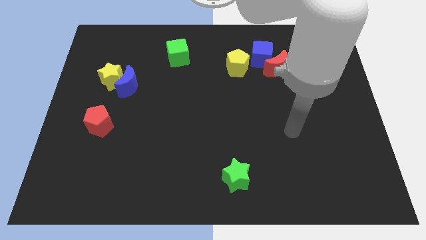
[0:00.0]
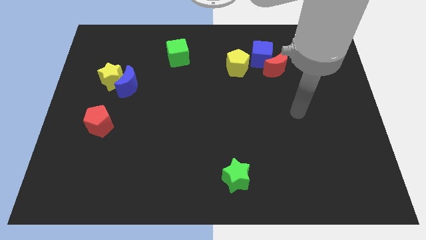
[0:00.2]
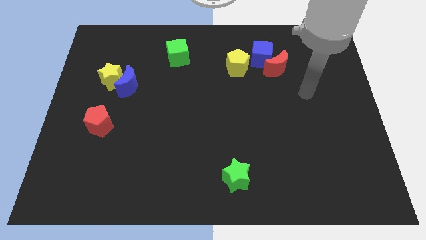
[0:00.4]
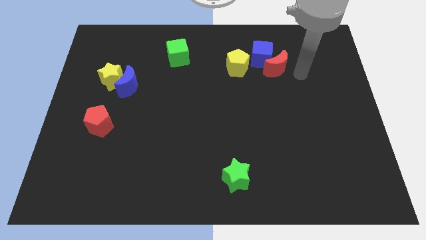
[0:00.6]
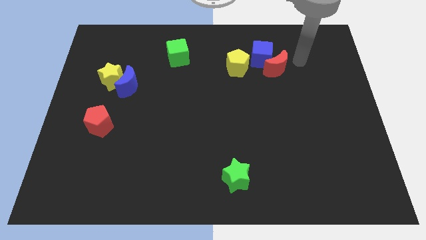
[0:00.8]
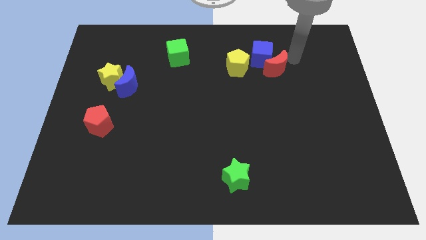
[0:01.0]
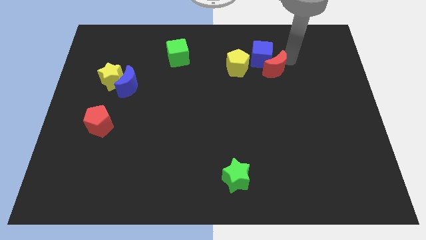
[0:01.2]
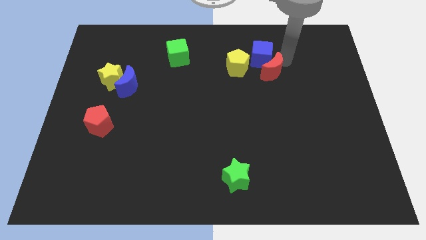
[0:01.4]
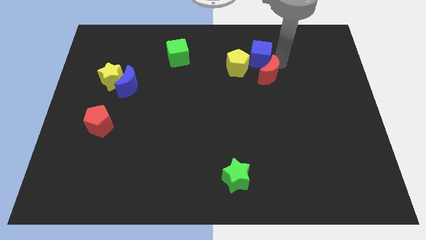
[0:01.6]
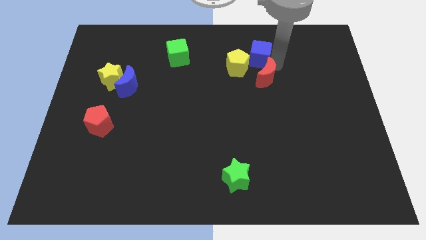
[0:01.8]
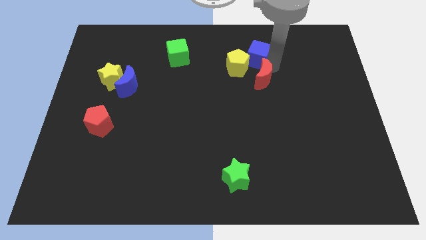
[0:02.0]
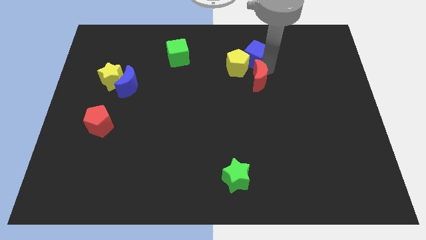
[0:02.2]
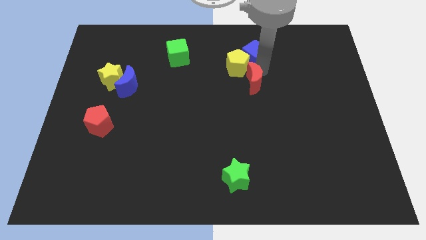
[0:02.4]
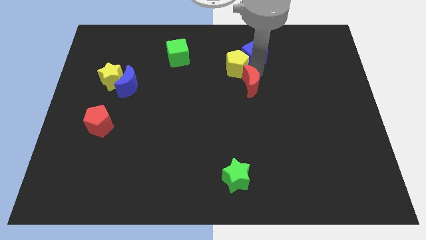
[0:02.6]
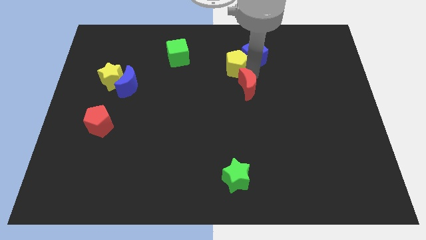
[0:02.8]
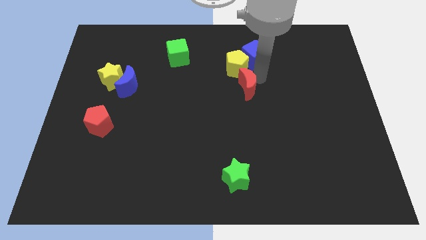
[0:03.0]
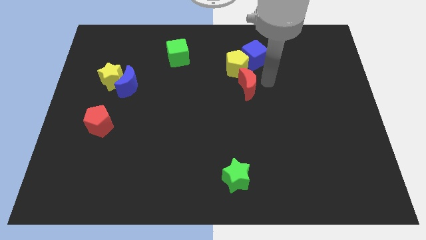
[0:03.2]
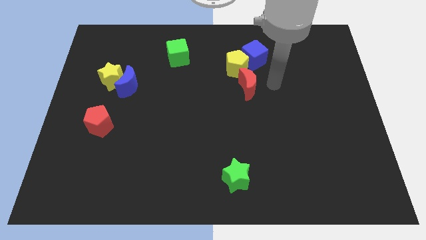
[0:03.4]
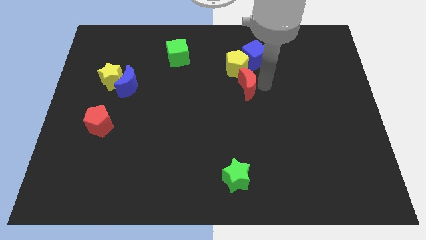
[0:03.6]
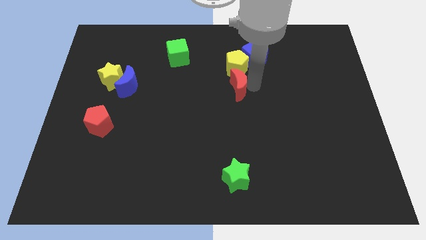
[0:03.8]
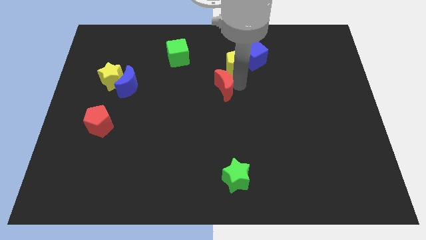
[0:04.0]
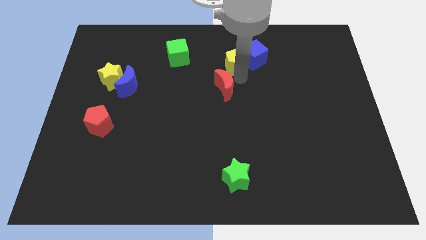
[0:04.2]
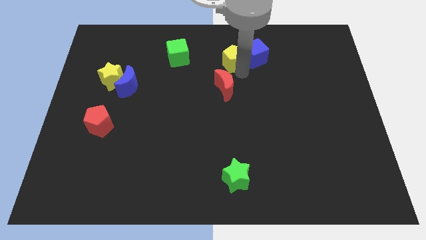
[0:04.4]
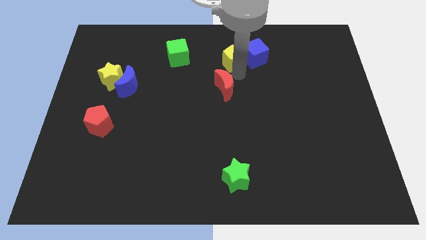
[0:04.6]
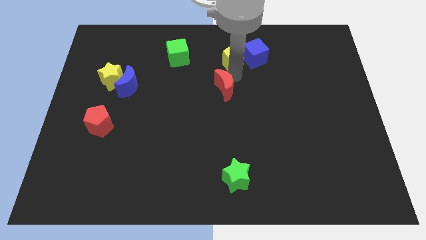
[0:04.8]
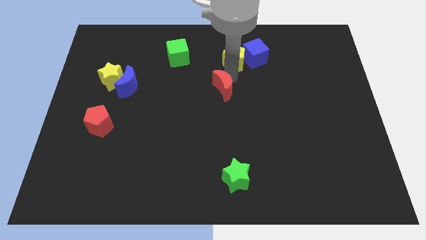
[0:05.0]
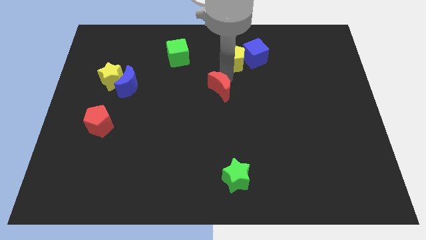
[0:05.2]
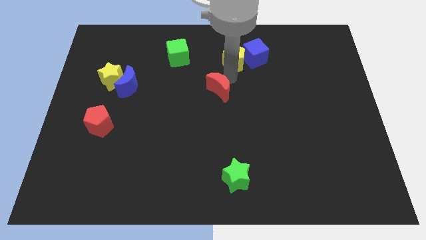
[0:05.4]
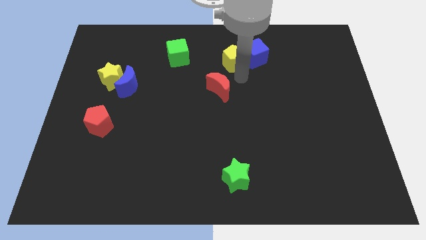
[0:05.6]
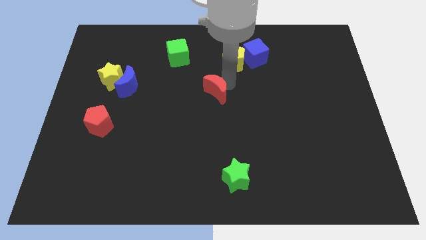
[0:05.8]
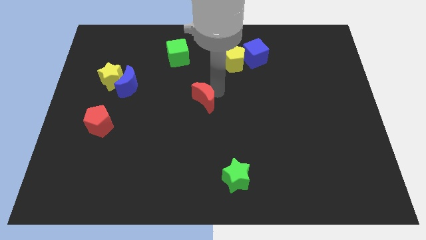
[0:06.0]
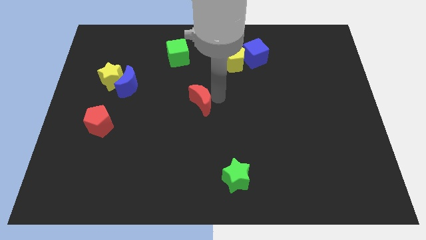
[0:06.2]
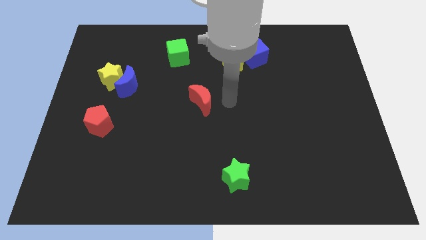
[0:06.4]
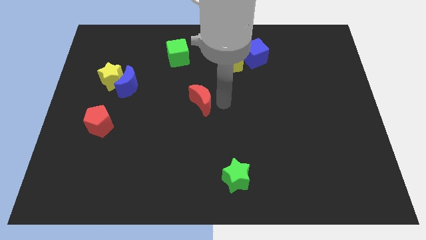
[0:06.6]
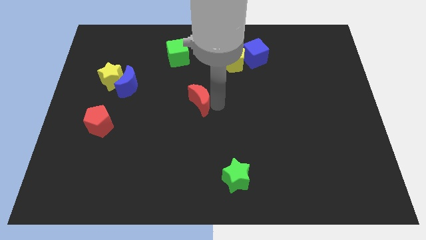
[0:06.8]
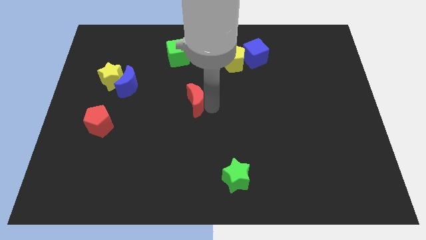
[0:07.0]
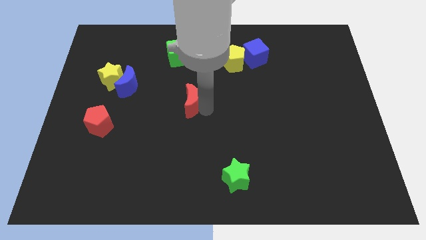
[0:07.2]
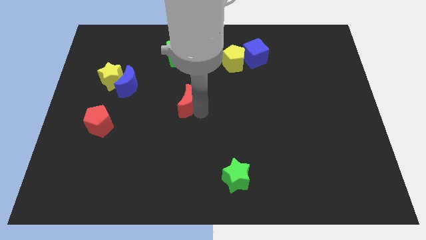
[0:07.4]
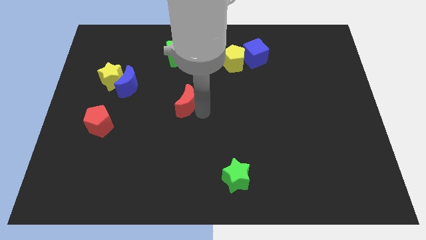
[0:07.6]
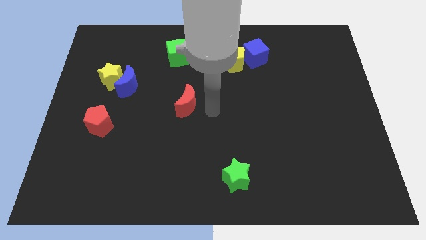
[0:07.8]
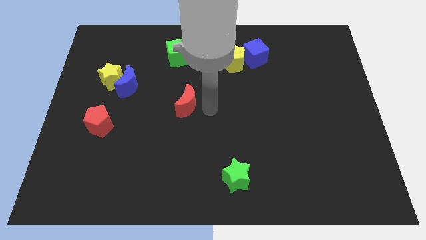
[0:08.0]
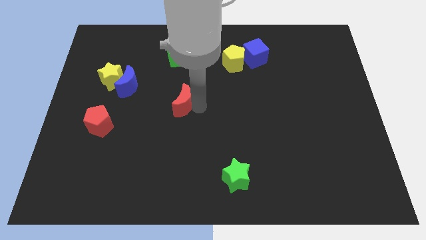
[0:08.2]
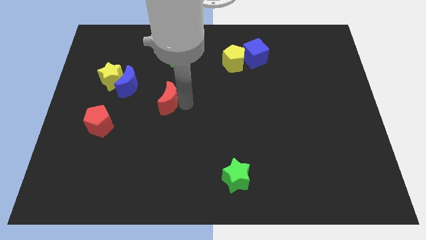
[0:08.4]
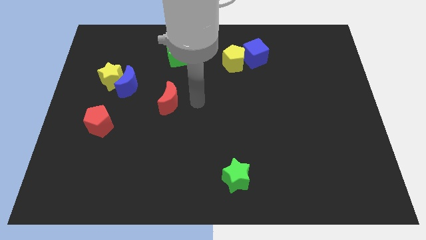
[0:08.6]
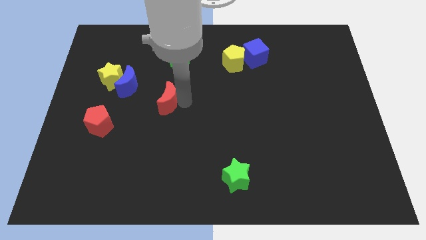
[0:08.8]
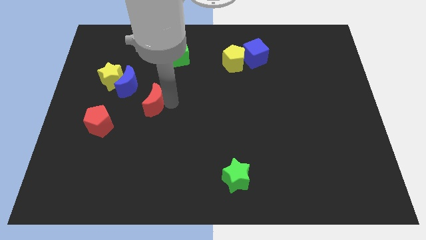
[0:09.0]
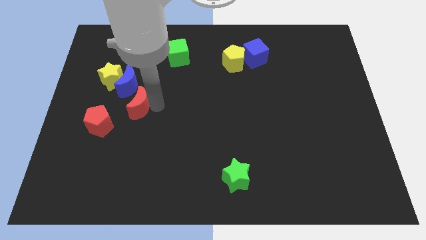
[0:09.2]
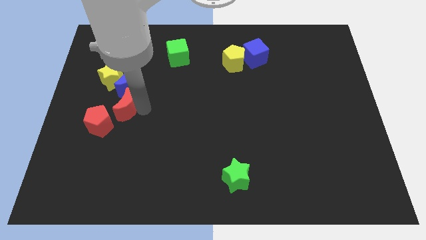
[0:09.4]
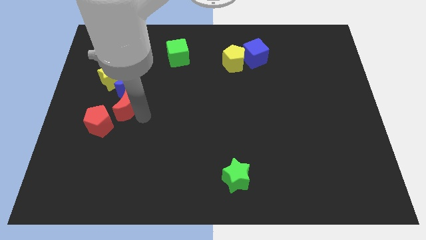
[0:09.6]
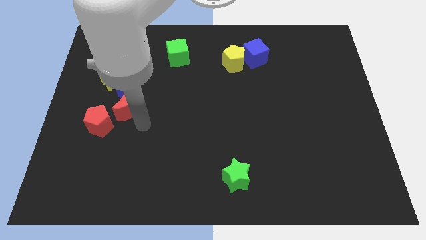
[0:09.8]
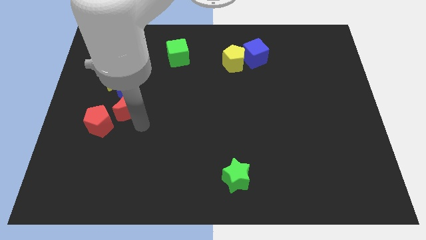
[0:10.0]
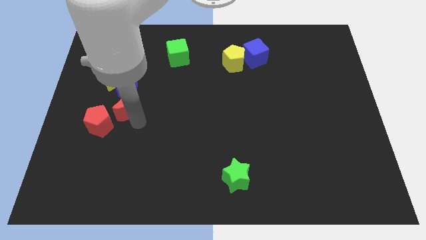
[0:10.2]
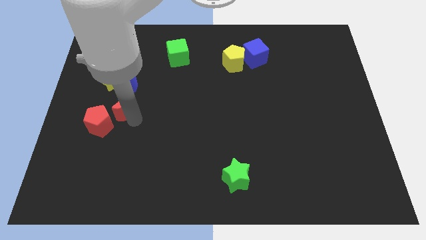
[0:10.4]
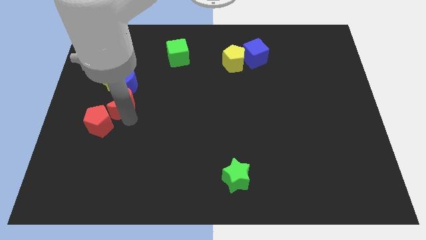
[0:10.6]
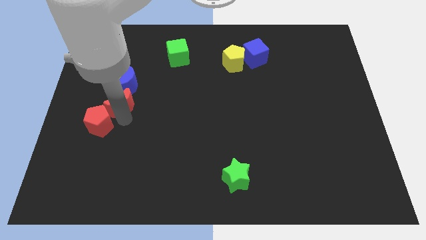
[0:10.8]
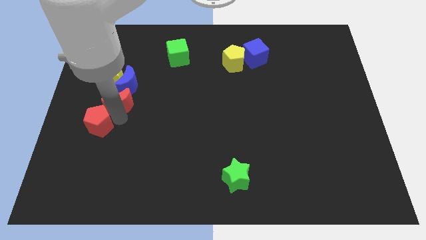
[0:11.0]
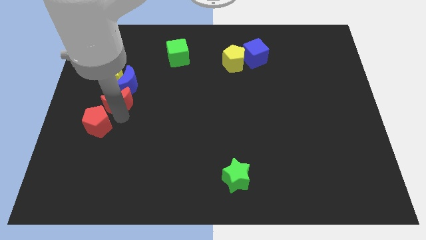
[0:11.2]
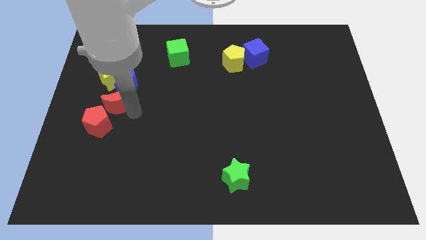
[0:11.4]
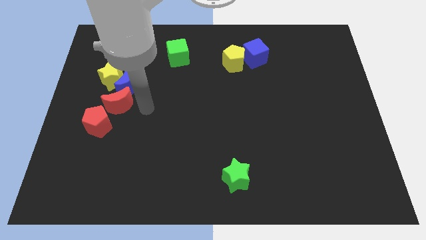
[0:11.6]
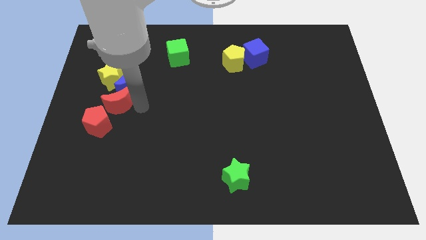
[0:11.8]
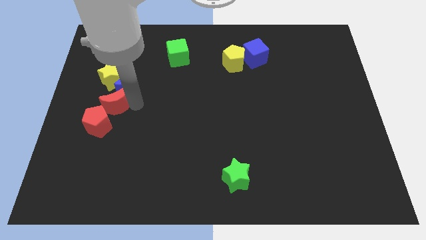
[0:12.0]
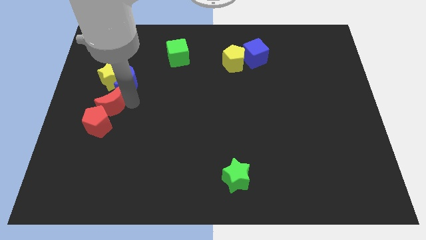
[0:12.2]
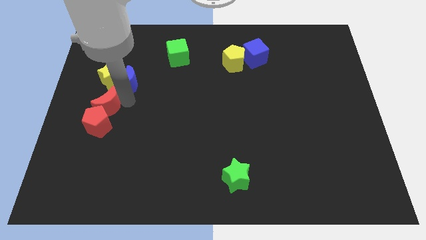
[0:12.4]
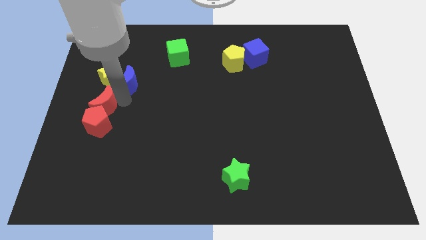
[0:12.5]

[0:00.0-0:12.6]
put the red moon to the left side of the board

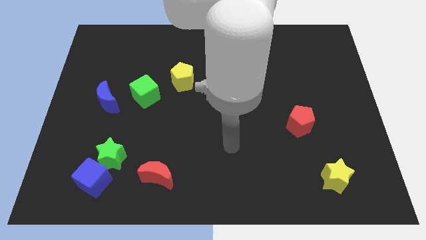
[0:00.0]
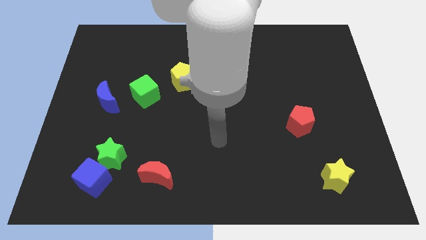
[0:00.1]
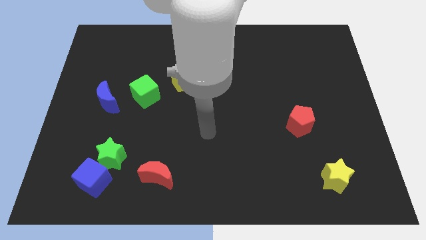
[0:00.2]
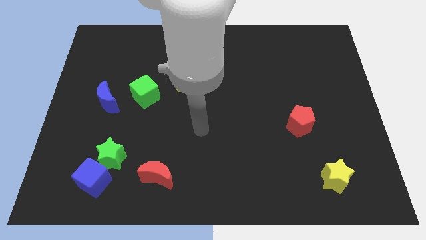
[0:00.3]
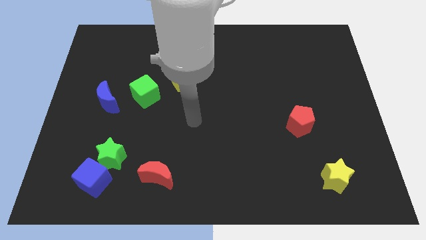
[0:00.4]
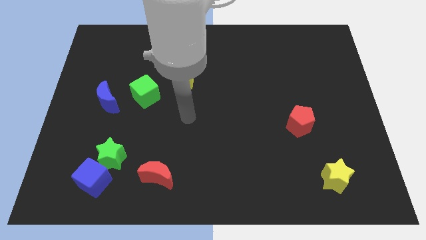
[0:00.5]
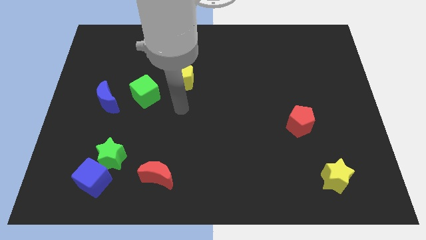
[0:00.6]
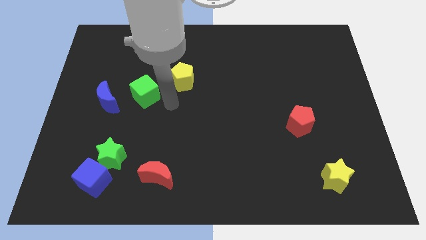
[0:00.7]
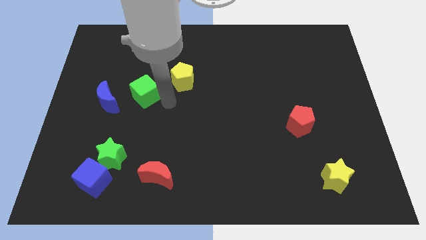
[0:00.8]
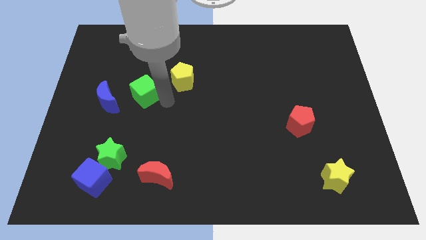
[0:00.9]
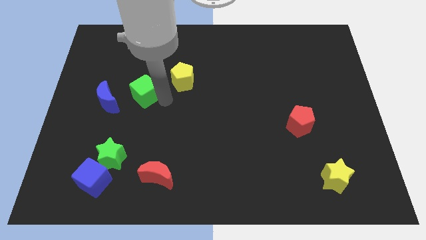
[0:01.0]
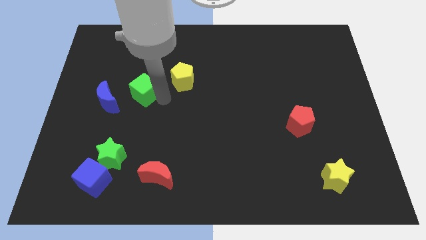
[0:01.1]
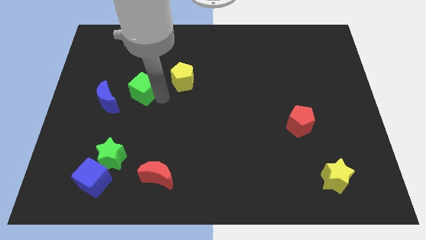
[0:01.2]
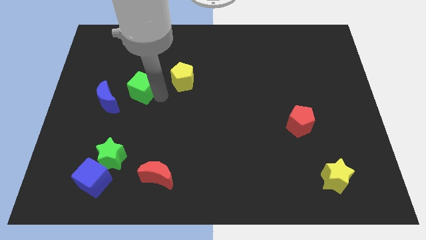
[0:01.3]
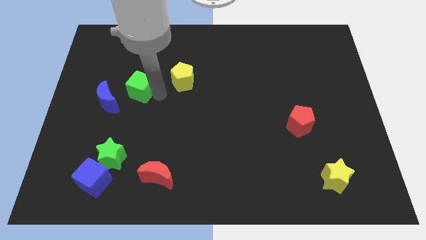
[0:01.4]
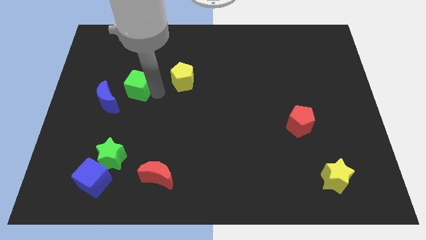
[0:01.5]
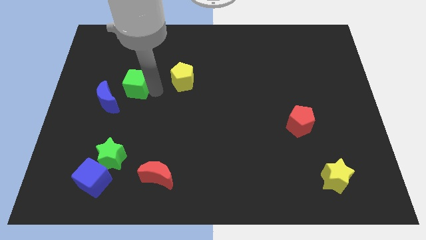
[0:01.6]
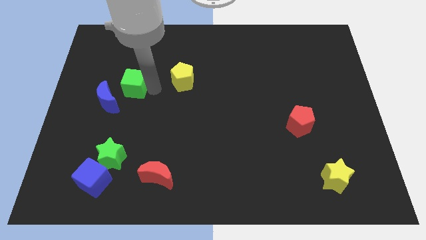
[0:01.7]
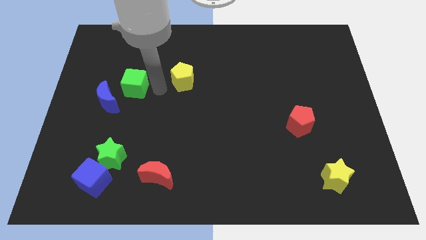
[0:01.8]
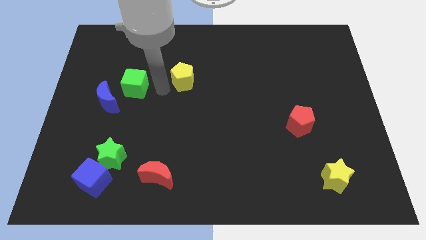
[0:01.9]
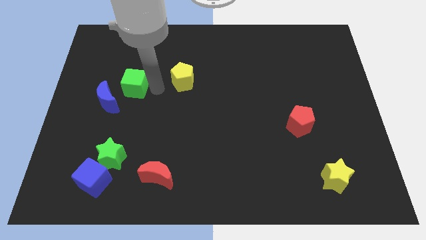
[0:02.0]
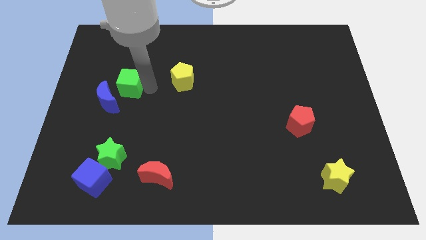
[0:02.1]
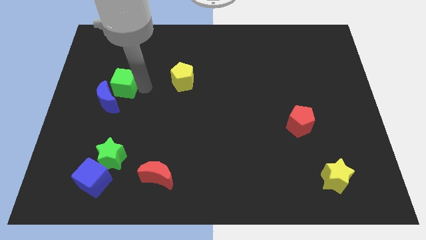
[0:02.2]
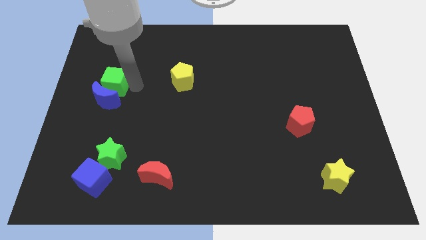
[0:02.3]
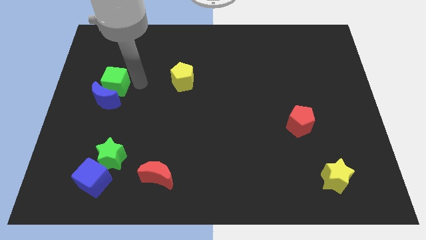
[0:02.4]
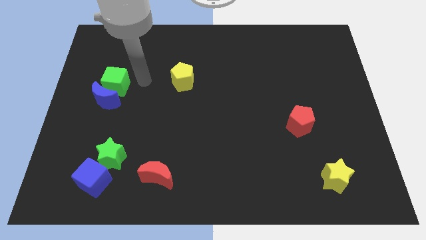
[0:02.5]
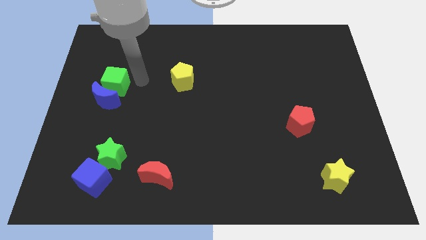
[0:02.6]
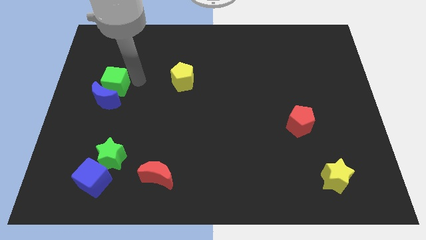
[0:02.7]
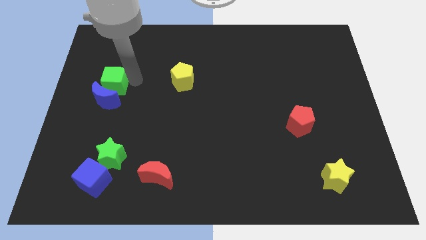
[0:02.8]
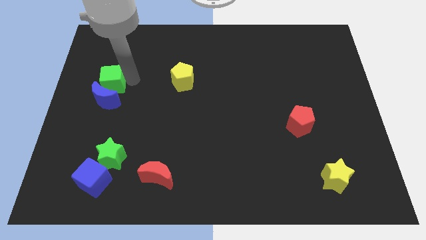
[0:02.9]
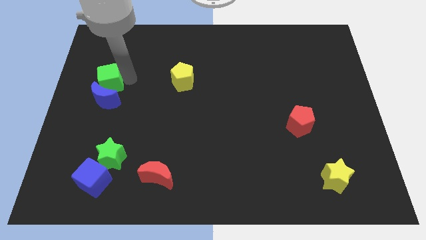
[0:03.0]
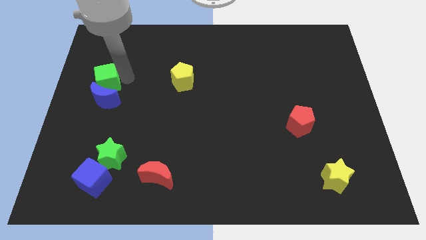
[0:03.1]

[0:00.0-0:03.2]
move the green cube to the left side
